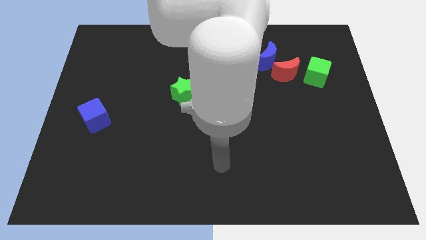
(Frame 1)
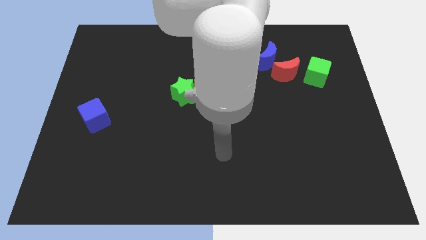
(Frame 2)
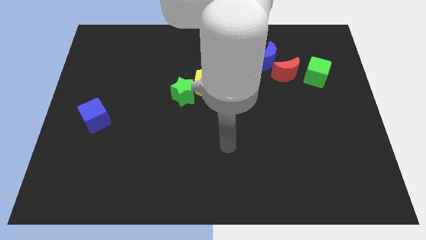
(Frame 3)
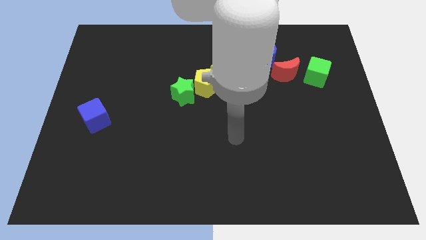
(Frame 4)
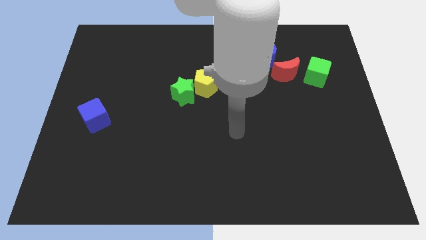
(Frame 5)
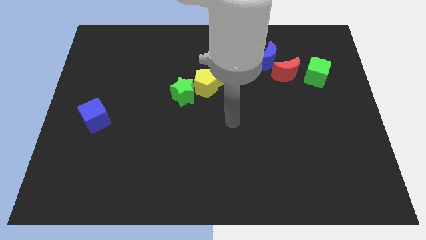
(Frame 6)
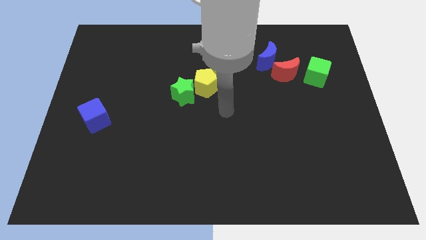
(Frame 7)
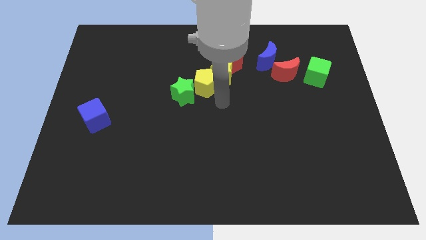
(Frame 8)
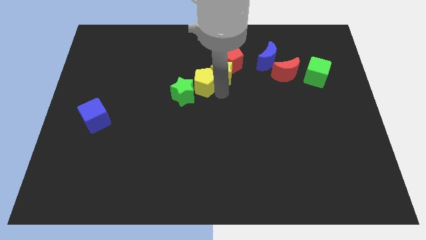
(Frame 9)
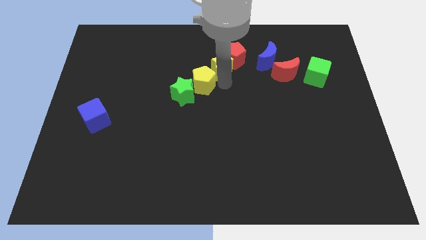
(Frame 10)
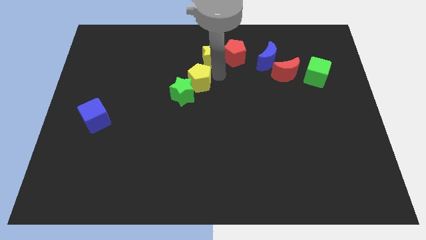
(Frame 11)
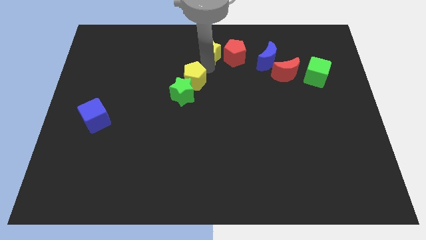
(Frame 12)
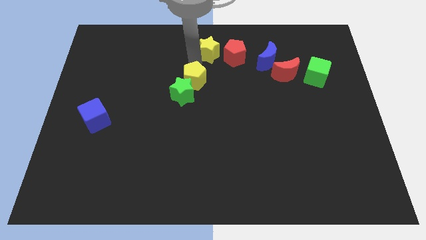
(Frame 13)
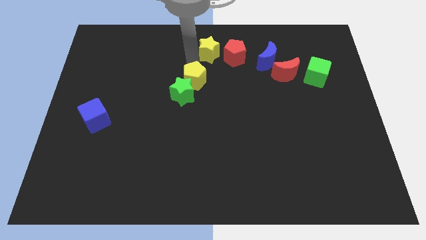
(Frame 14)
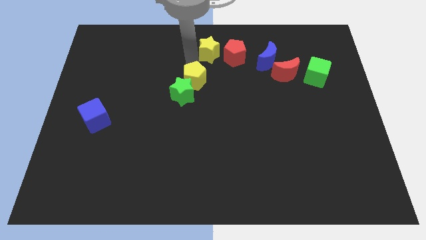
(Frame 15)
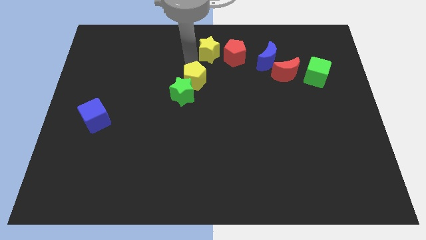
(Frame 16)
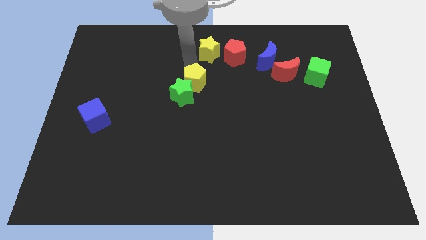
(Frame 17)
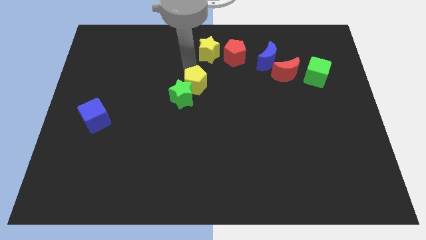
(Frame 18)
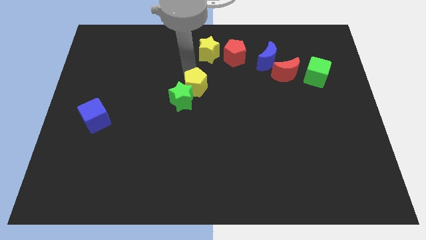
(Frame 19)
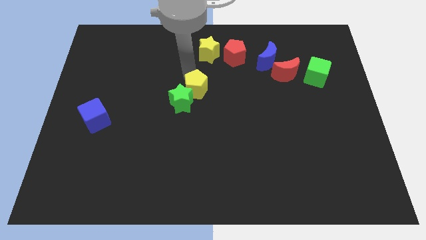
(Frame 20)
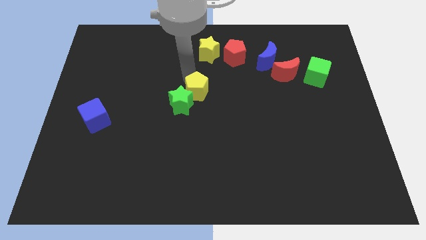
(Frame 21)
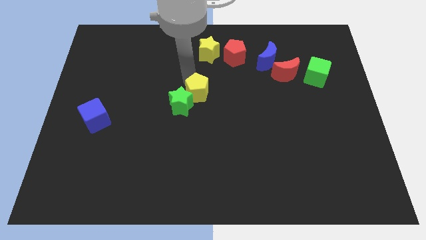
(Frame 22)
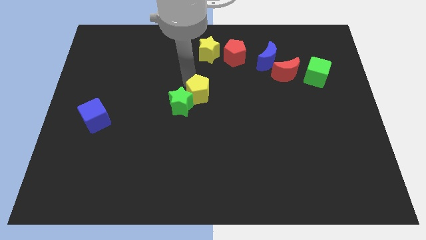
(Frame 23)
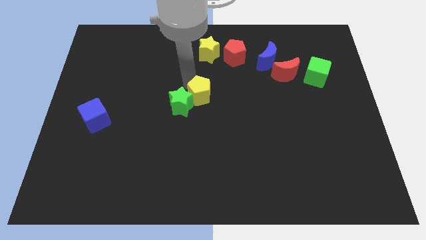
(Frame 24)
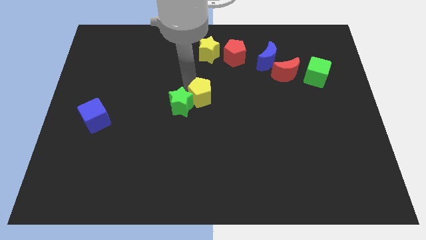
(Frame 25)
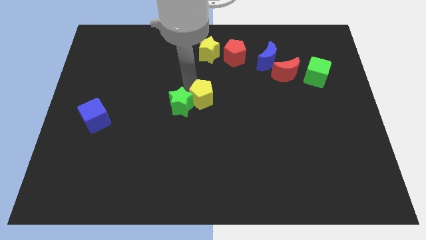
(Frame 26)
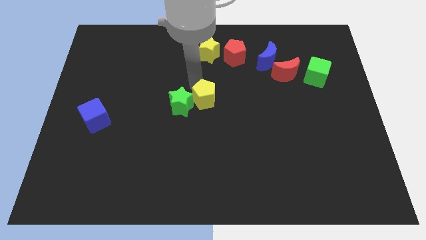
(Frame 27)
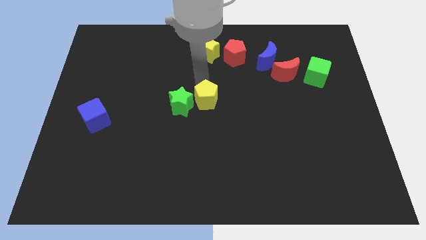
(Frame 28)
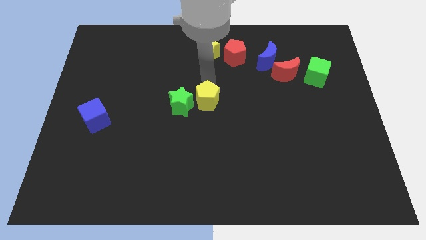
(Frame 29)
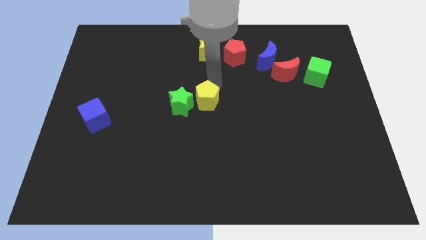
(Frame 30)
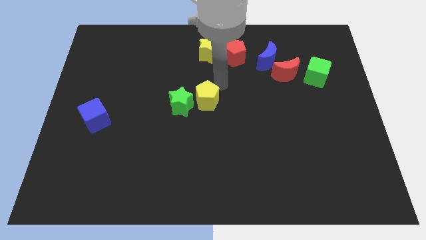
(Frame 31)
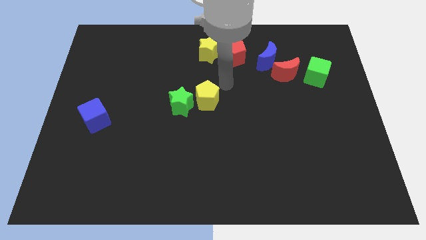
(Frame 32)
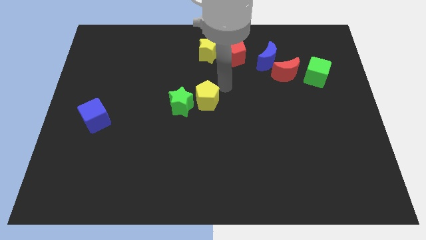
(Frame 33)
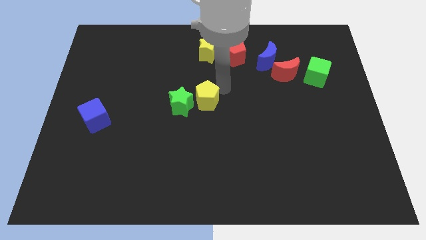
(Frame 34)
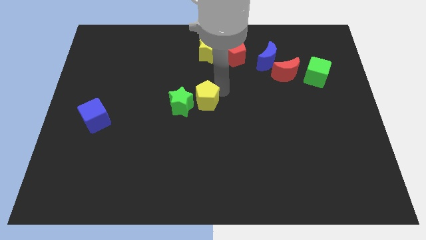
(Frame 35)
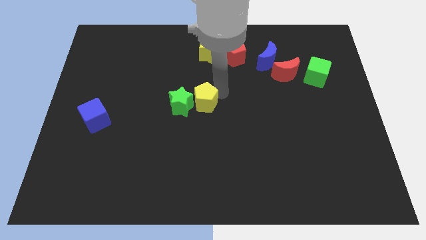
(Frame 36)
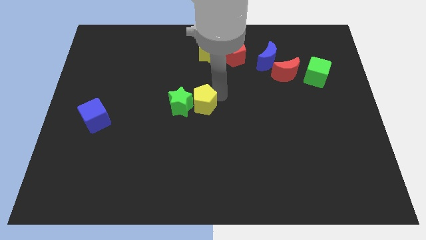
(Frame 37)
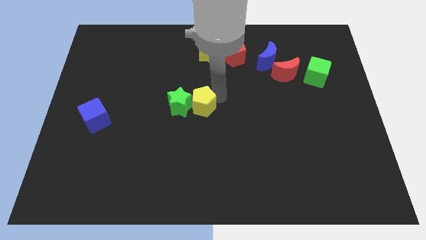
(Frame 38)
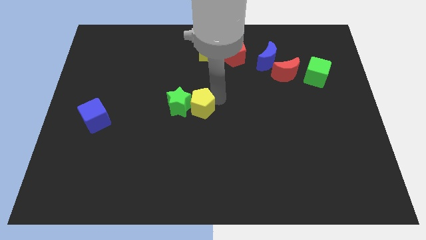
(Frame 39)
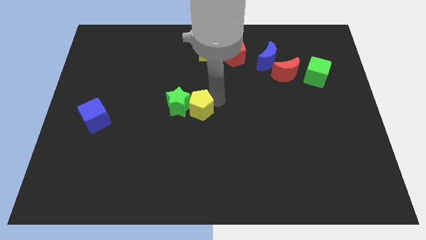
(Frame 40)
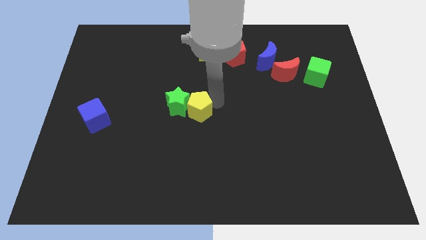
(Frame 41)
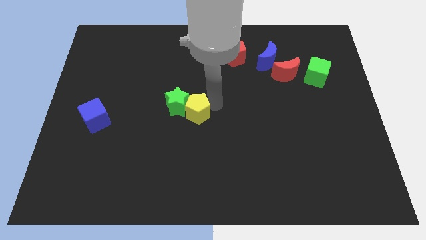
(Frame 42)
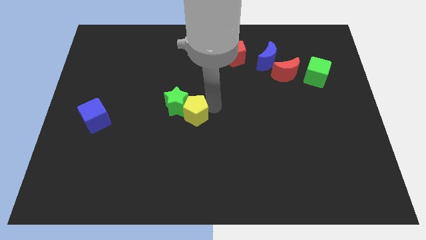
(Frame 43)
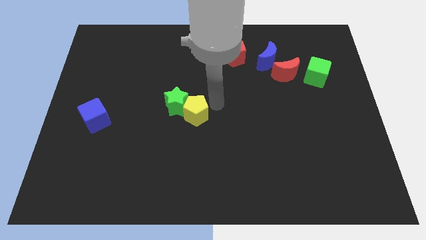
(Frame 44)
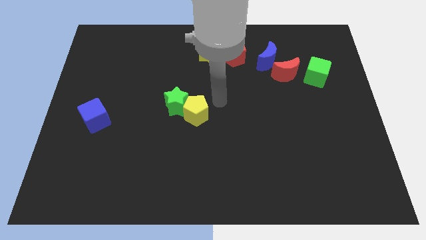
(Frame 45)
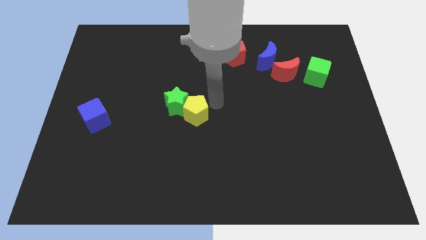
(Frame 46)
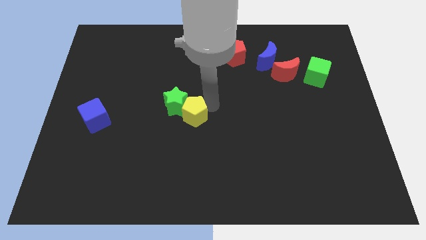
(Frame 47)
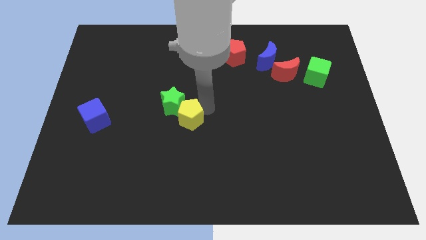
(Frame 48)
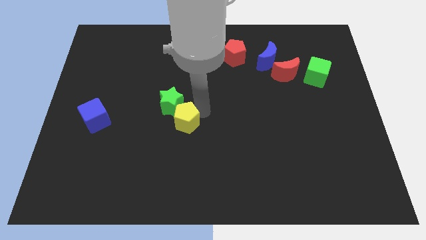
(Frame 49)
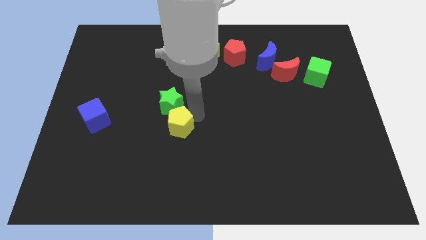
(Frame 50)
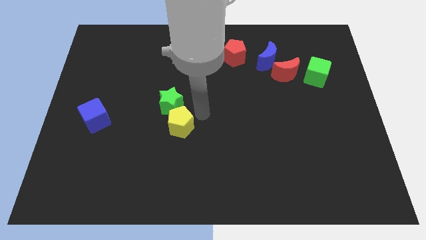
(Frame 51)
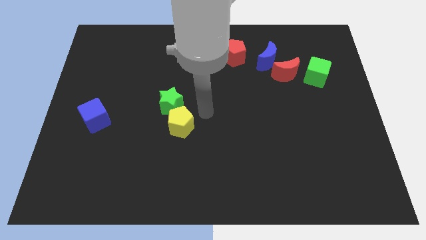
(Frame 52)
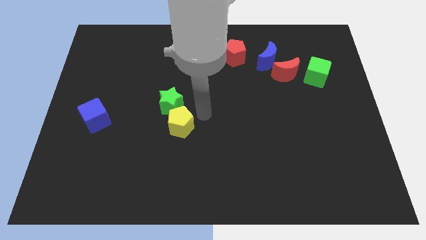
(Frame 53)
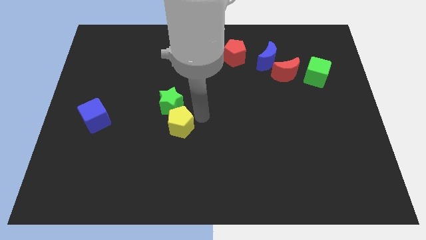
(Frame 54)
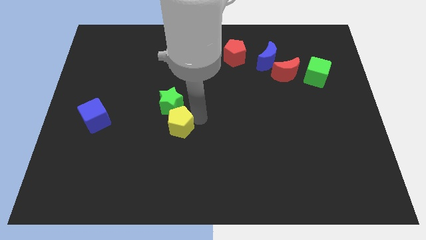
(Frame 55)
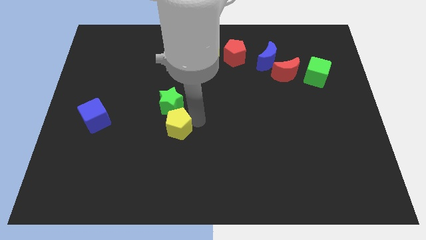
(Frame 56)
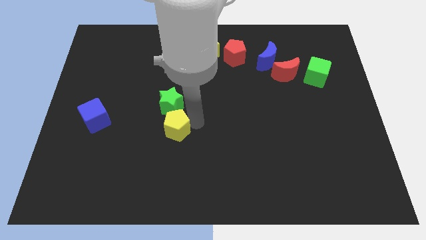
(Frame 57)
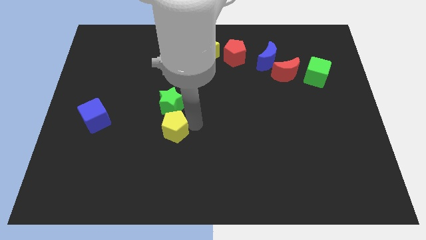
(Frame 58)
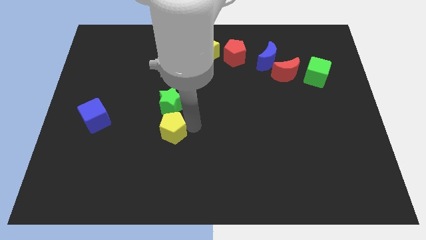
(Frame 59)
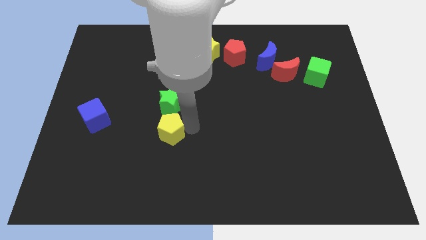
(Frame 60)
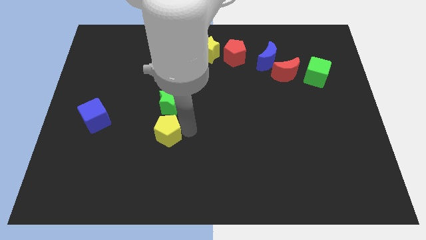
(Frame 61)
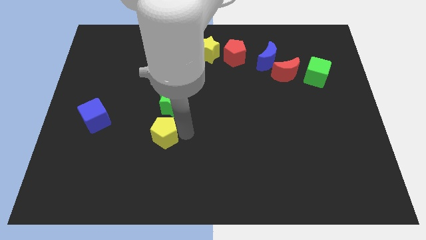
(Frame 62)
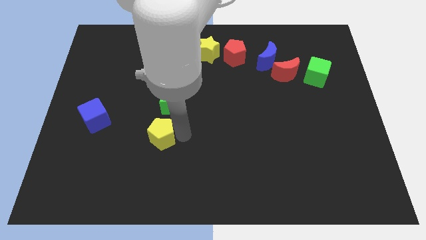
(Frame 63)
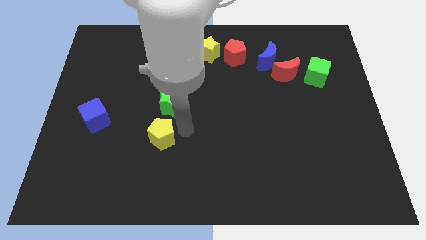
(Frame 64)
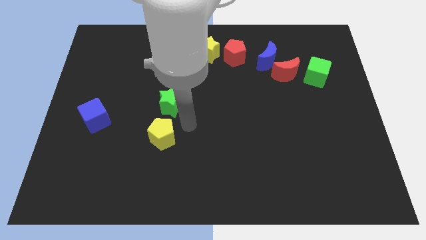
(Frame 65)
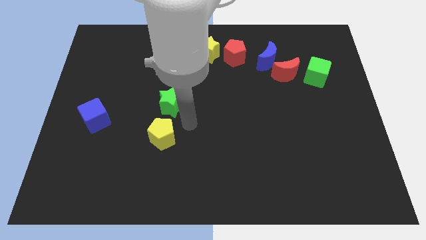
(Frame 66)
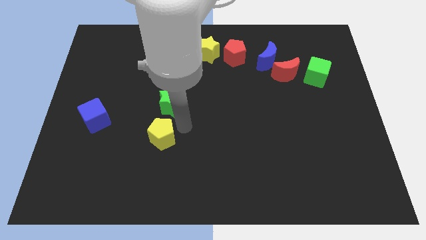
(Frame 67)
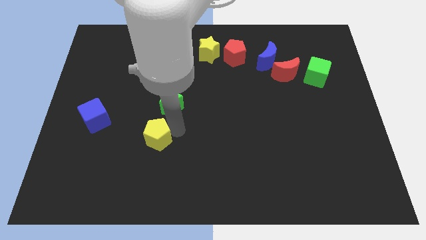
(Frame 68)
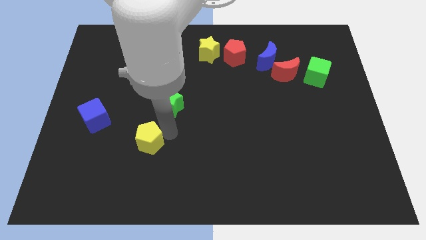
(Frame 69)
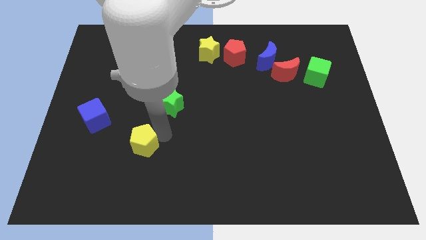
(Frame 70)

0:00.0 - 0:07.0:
push the yellow pentagon downwards and to the left

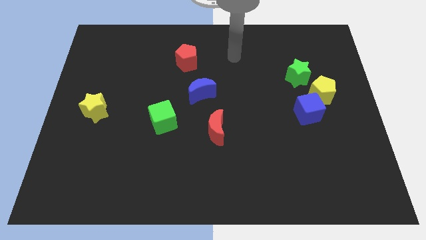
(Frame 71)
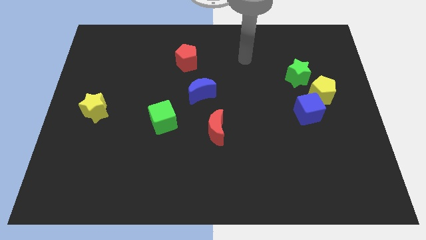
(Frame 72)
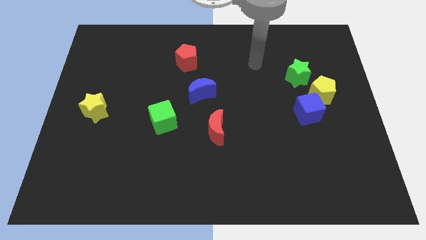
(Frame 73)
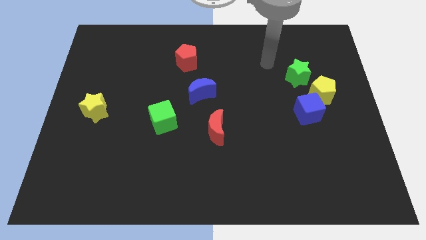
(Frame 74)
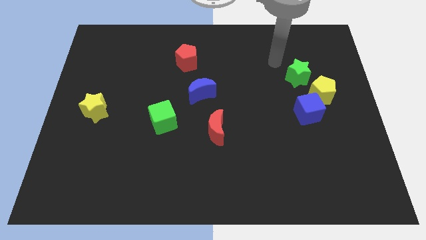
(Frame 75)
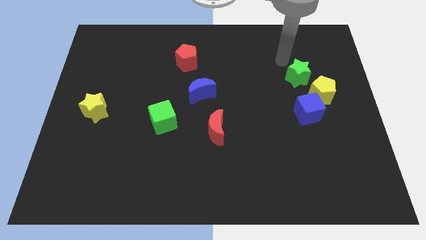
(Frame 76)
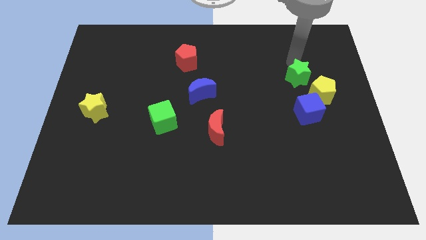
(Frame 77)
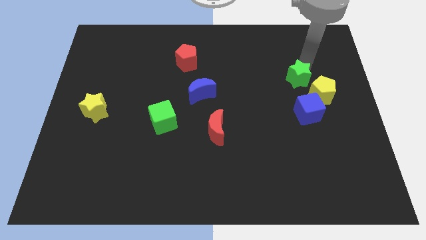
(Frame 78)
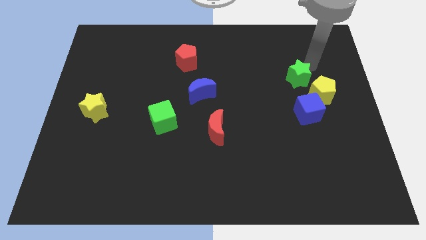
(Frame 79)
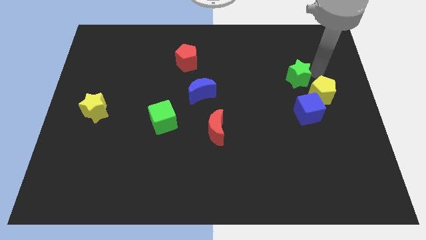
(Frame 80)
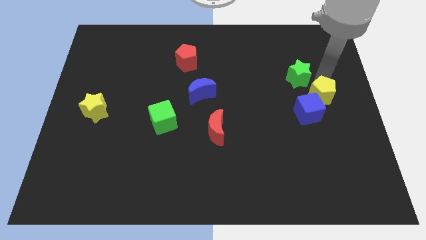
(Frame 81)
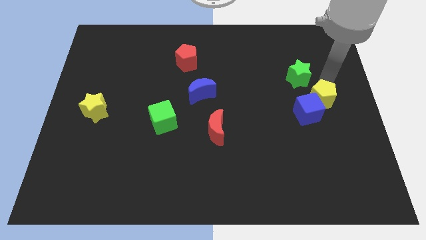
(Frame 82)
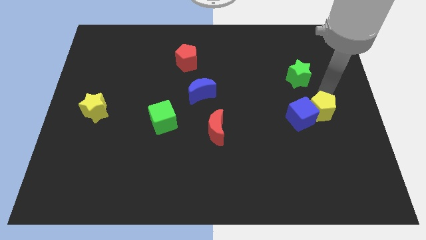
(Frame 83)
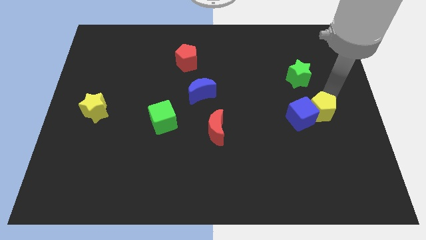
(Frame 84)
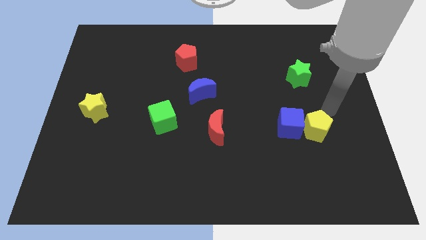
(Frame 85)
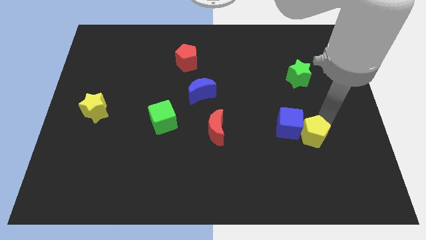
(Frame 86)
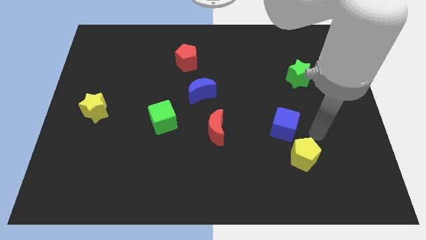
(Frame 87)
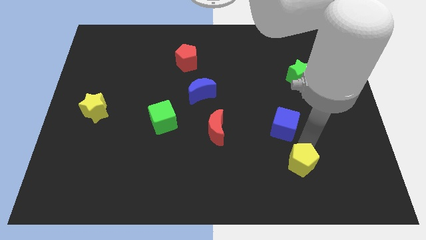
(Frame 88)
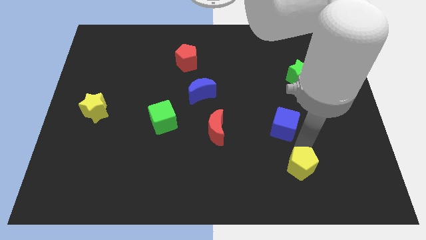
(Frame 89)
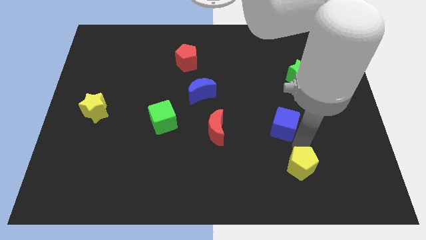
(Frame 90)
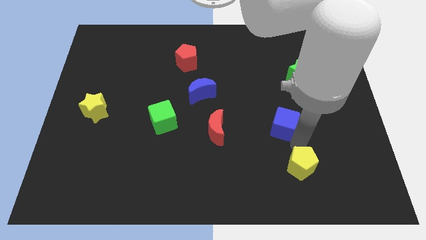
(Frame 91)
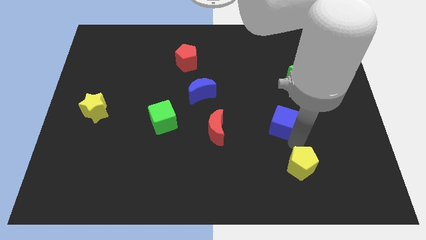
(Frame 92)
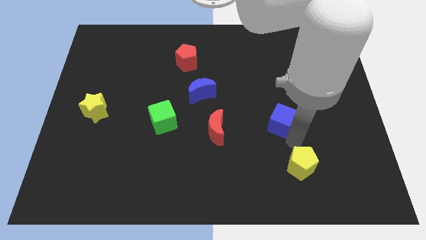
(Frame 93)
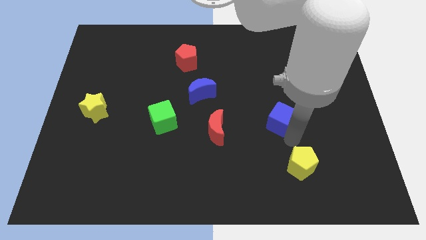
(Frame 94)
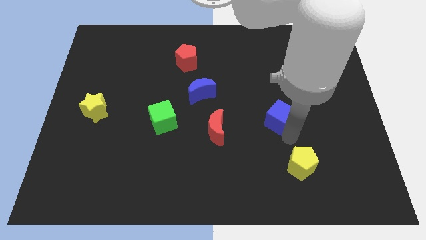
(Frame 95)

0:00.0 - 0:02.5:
slightly slide the blue cube left
